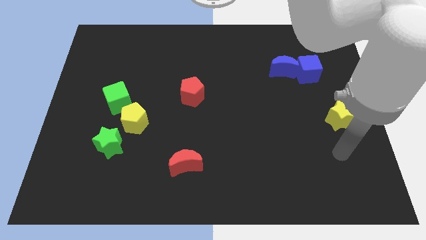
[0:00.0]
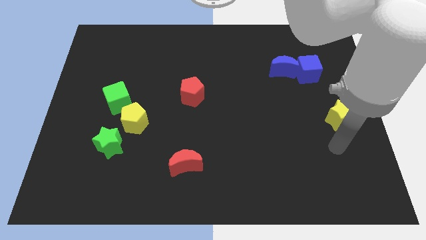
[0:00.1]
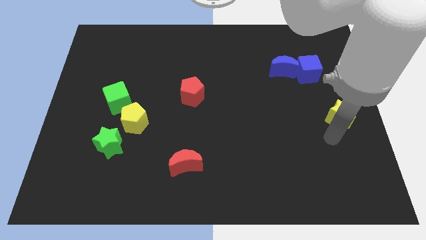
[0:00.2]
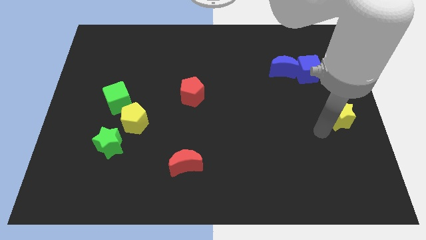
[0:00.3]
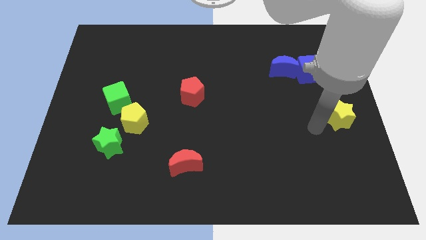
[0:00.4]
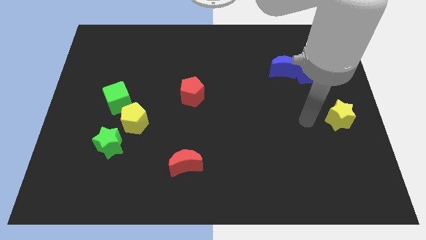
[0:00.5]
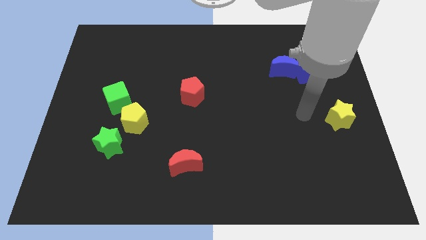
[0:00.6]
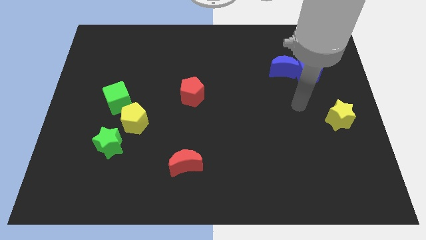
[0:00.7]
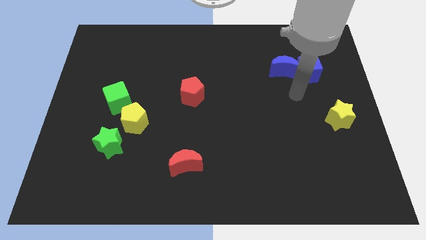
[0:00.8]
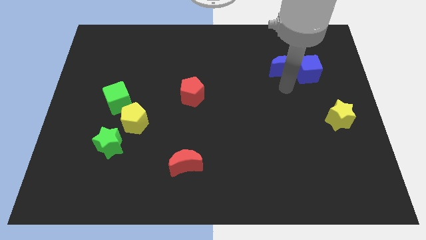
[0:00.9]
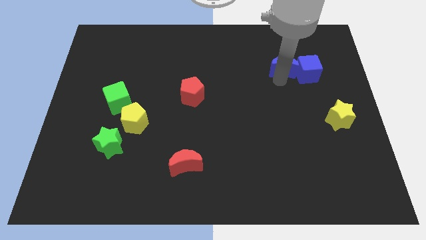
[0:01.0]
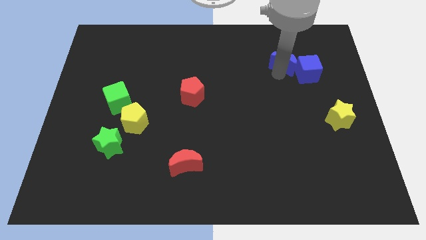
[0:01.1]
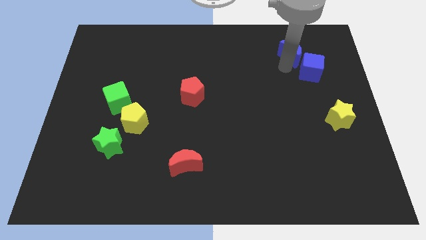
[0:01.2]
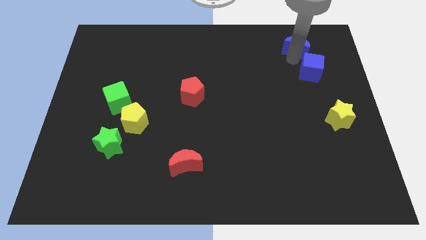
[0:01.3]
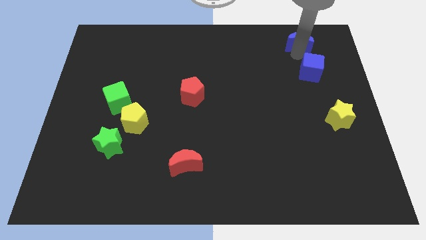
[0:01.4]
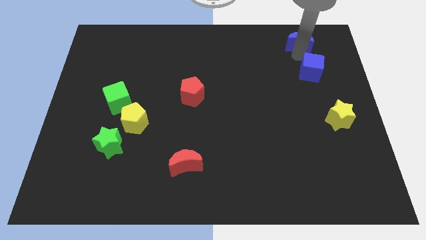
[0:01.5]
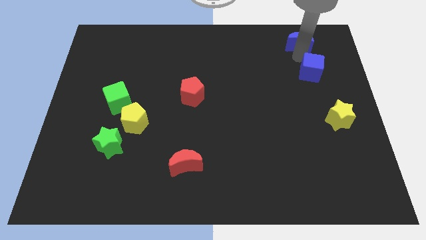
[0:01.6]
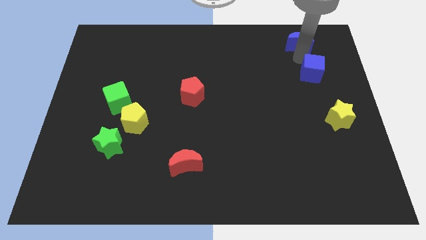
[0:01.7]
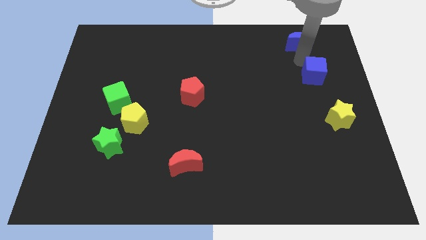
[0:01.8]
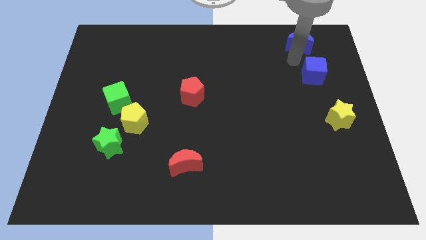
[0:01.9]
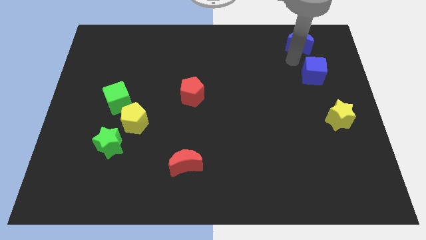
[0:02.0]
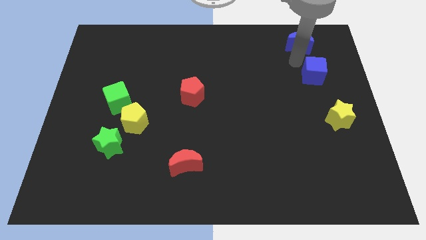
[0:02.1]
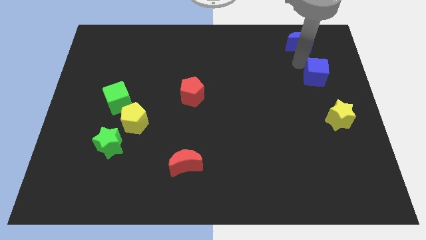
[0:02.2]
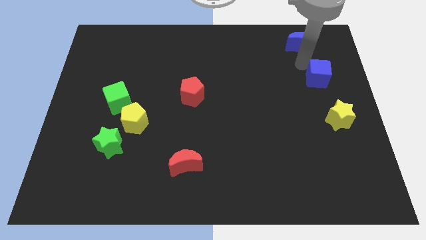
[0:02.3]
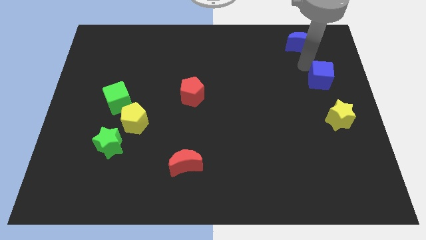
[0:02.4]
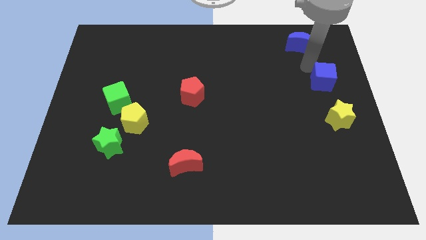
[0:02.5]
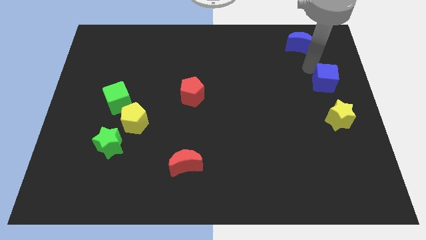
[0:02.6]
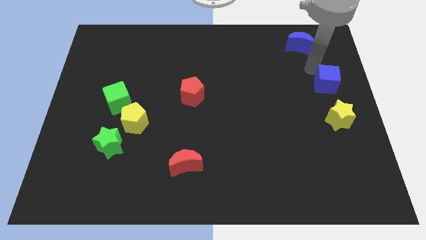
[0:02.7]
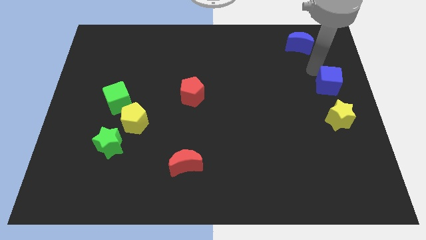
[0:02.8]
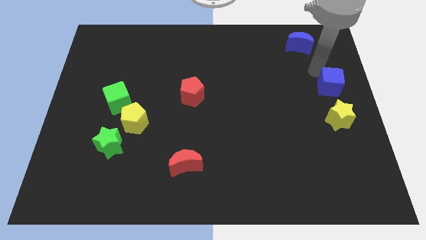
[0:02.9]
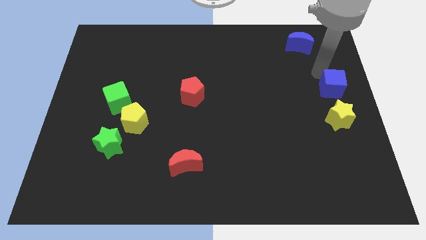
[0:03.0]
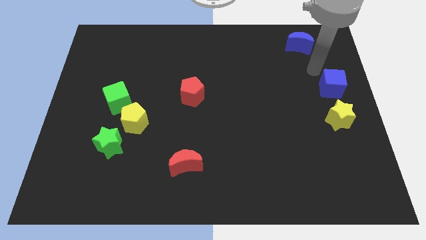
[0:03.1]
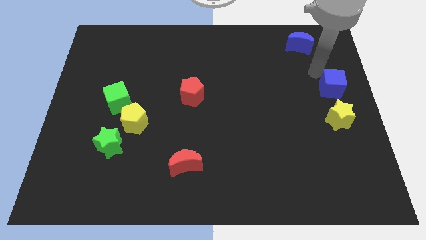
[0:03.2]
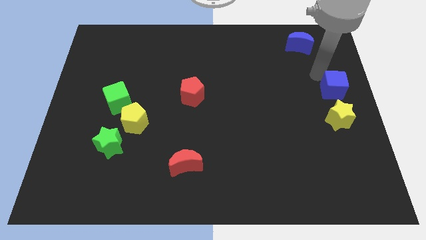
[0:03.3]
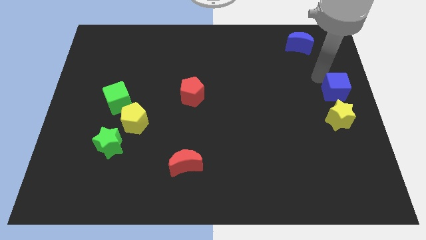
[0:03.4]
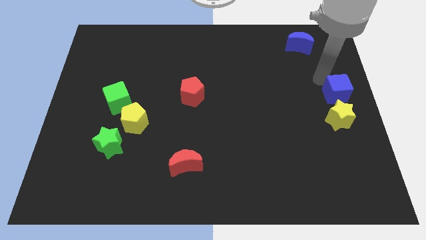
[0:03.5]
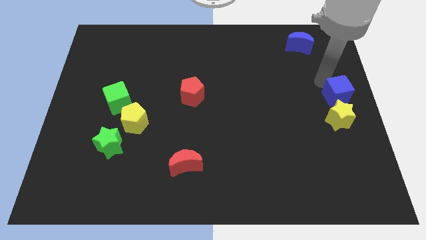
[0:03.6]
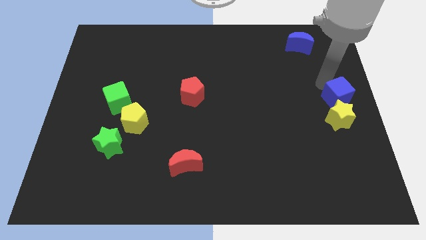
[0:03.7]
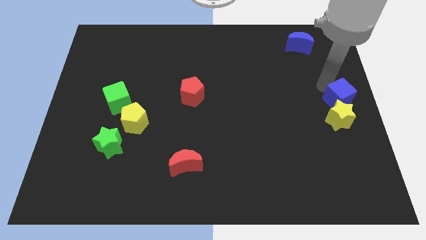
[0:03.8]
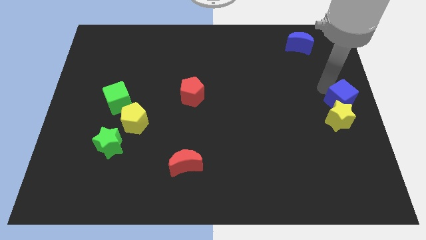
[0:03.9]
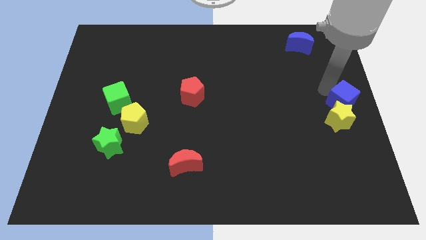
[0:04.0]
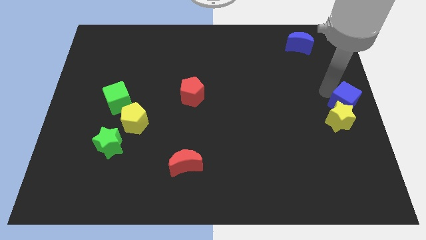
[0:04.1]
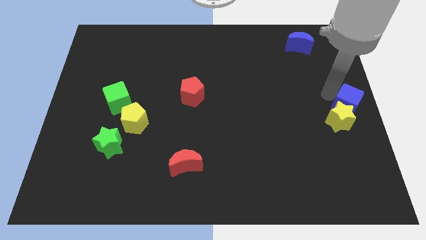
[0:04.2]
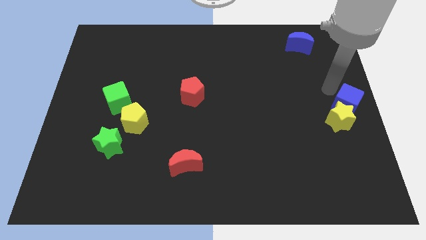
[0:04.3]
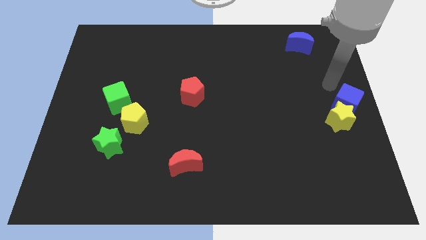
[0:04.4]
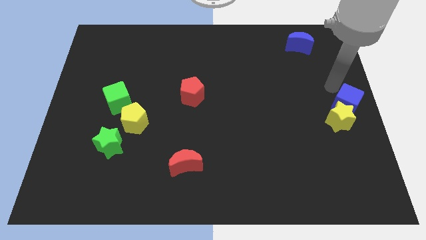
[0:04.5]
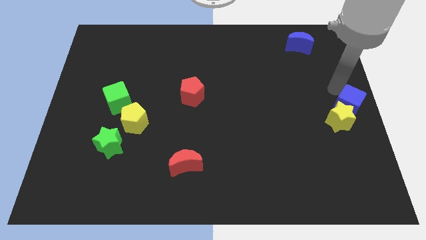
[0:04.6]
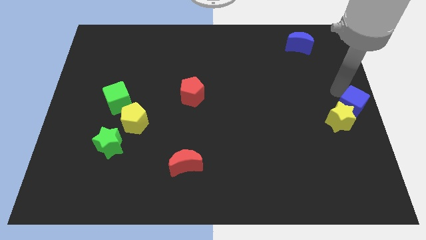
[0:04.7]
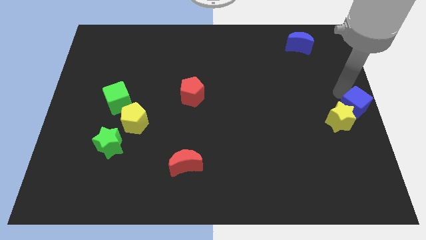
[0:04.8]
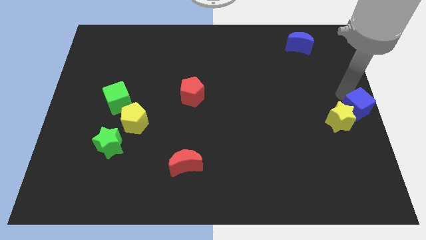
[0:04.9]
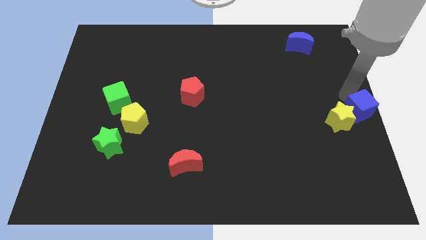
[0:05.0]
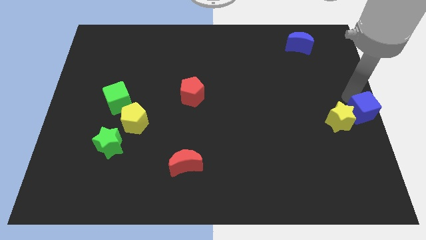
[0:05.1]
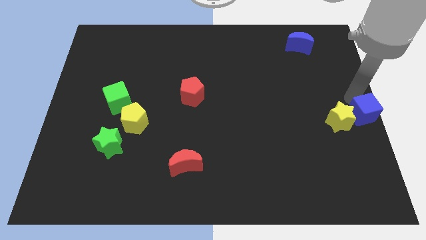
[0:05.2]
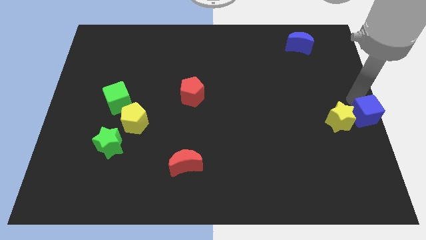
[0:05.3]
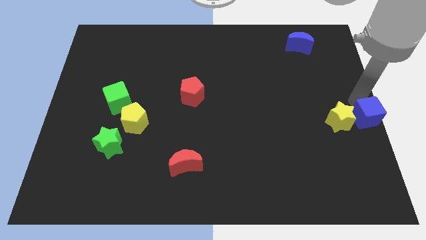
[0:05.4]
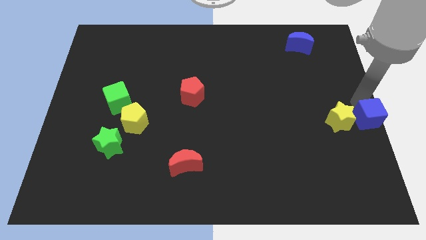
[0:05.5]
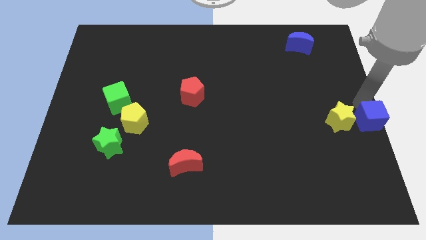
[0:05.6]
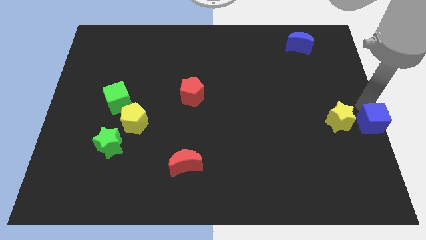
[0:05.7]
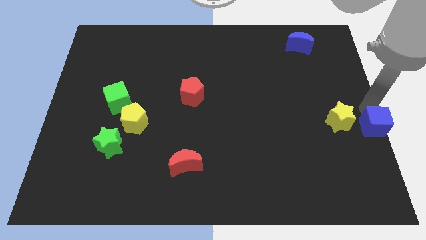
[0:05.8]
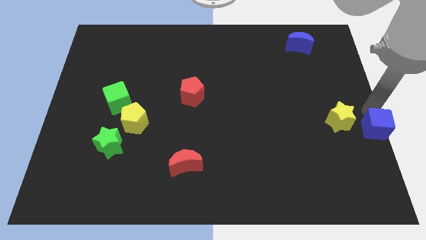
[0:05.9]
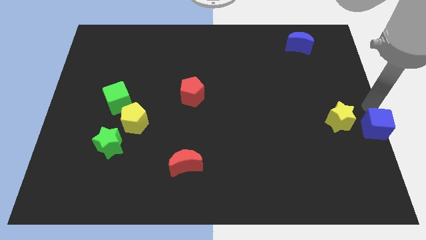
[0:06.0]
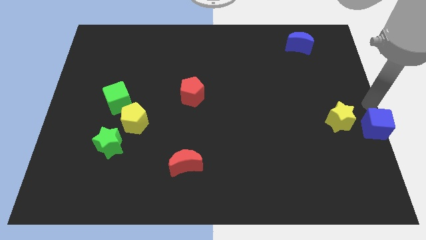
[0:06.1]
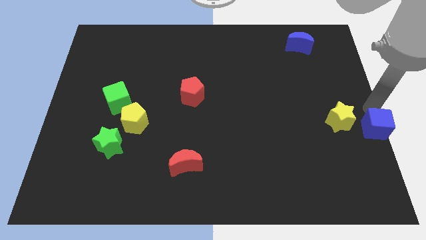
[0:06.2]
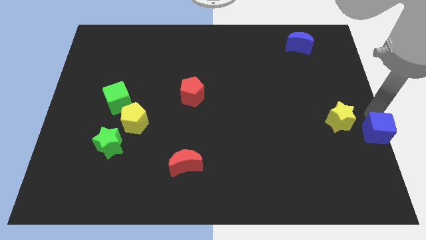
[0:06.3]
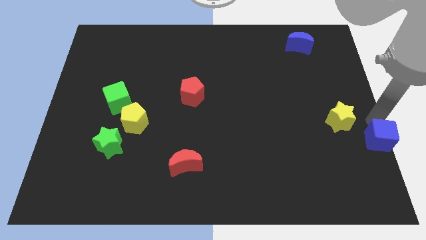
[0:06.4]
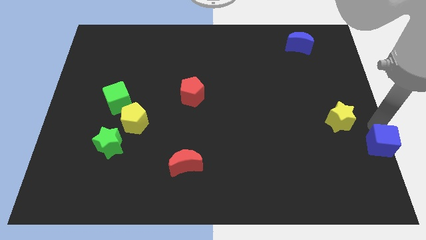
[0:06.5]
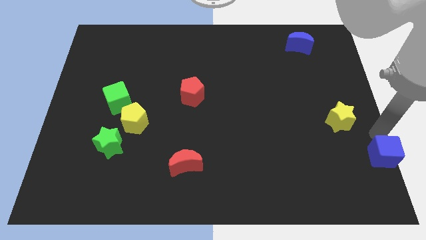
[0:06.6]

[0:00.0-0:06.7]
slide the blue cube to the bottom right of the board

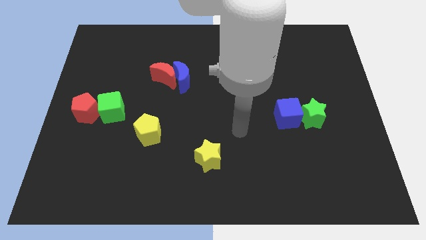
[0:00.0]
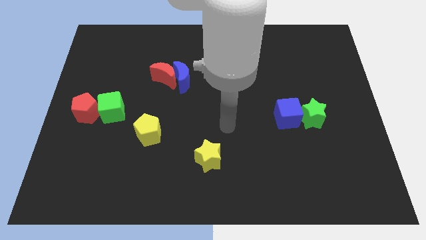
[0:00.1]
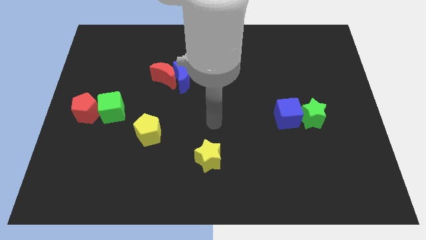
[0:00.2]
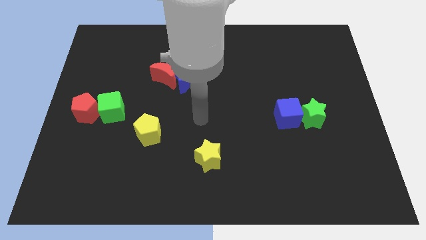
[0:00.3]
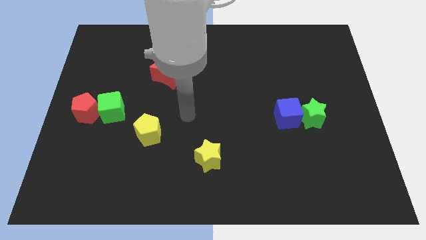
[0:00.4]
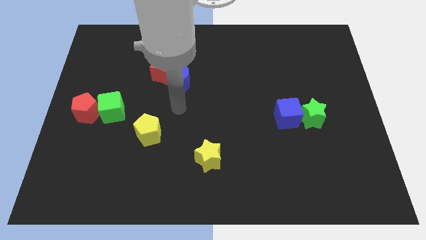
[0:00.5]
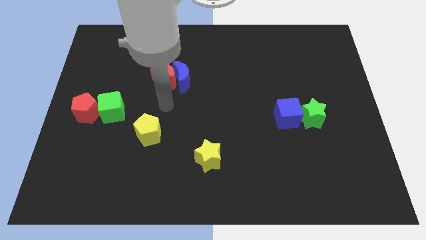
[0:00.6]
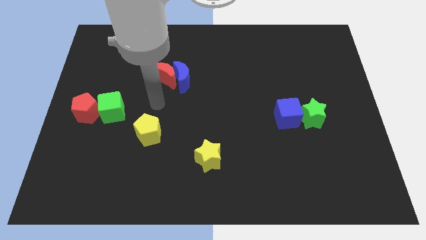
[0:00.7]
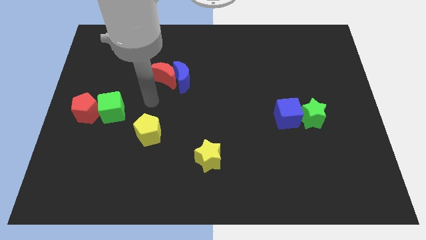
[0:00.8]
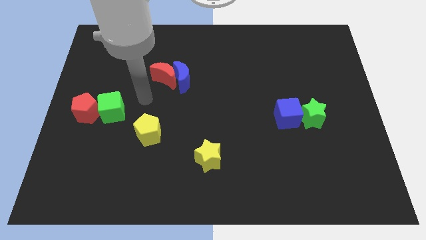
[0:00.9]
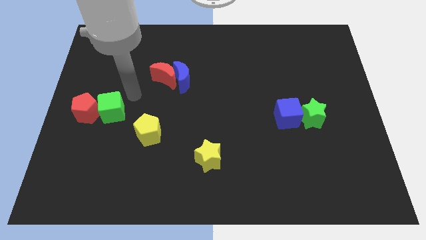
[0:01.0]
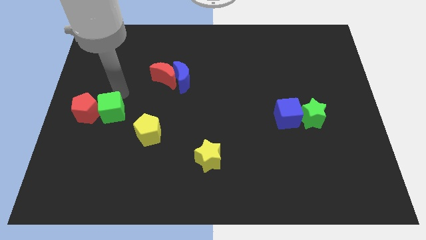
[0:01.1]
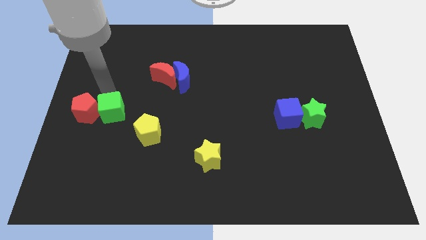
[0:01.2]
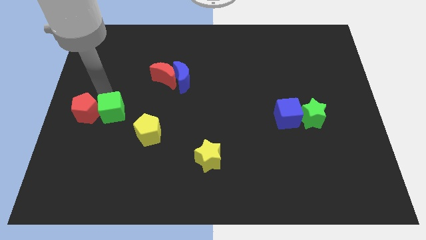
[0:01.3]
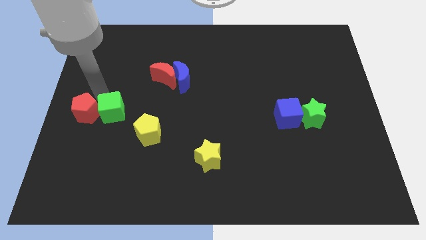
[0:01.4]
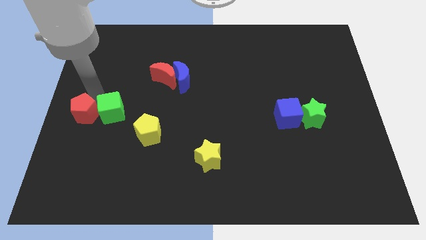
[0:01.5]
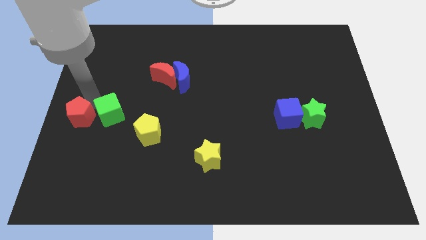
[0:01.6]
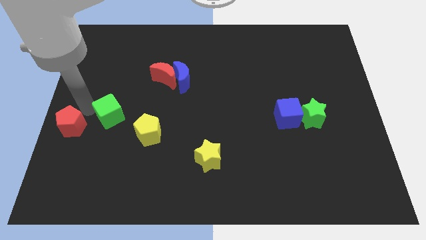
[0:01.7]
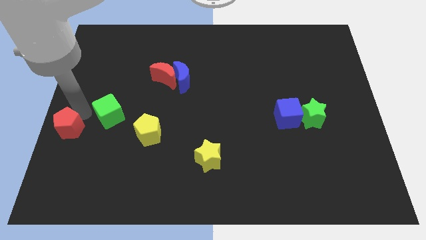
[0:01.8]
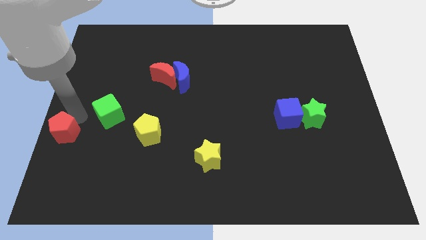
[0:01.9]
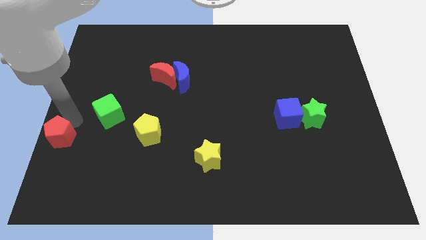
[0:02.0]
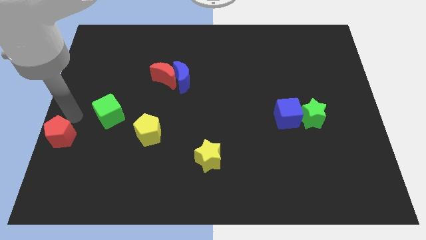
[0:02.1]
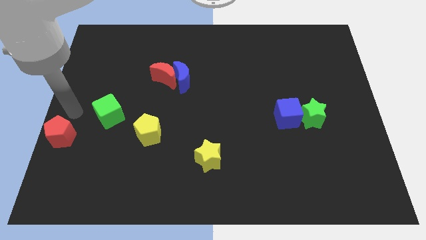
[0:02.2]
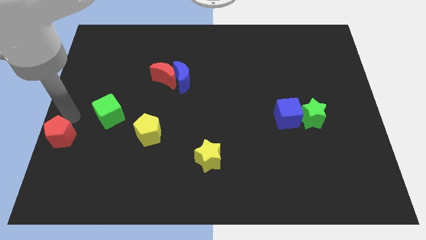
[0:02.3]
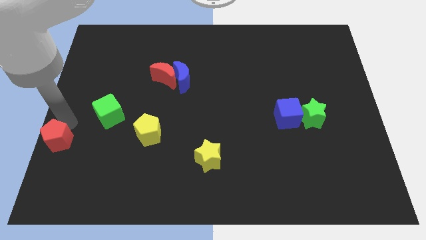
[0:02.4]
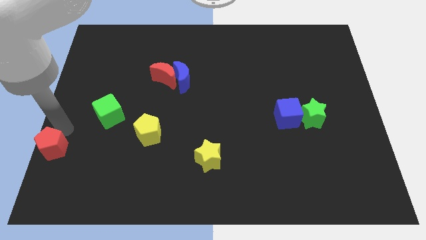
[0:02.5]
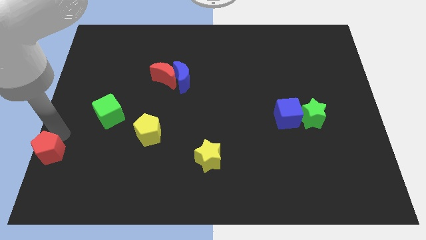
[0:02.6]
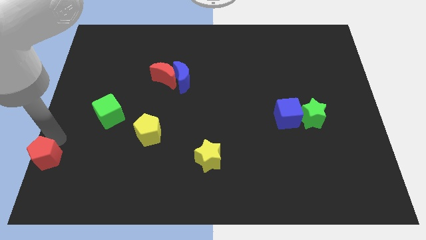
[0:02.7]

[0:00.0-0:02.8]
push the red pentagon to the lower left corner
